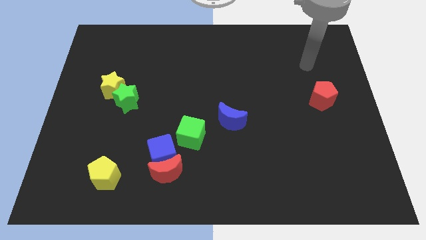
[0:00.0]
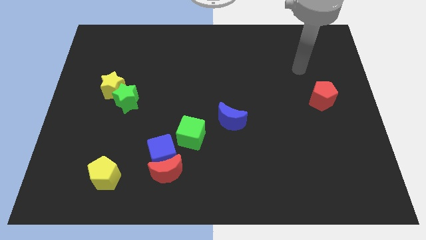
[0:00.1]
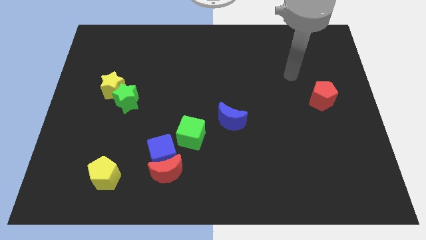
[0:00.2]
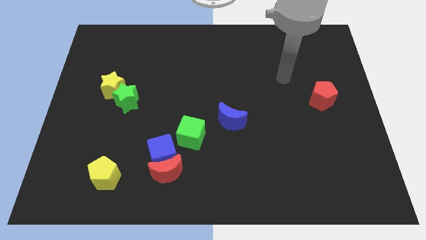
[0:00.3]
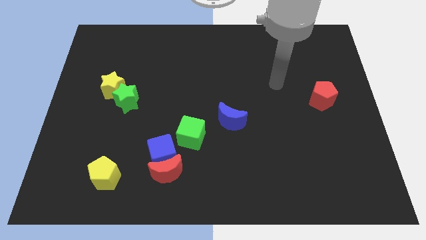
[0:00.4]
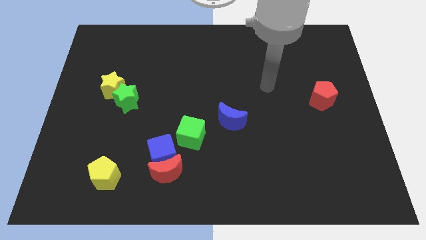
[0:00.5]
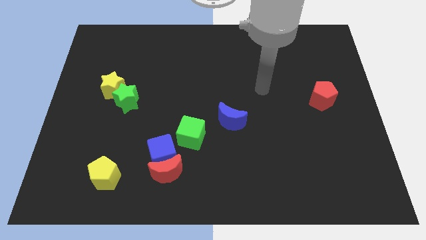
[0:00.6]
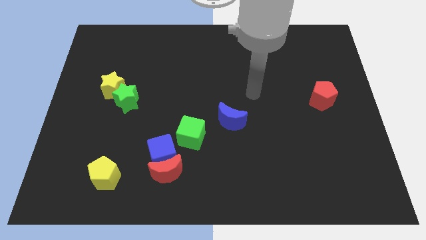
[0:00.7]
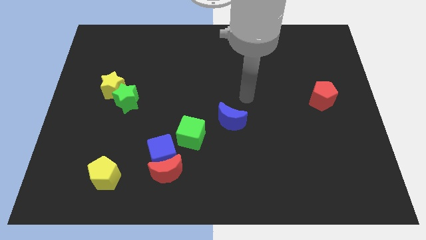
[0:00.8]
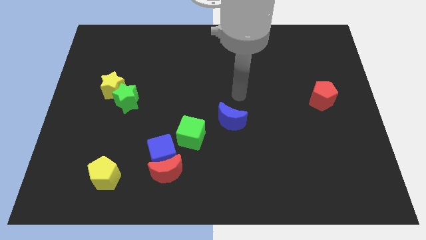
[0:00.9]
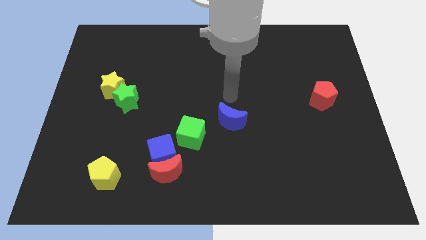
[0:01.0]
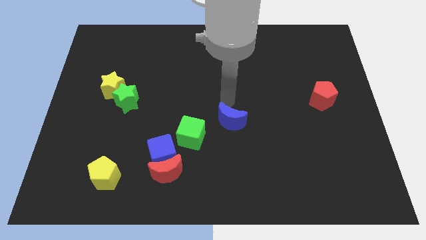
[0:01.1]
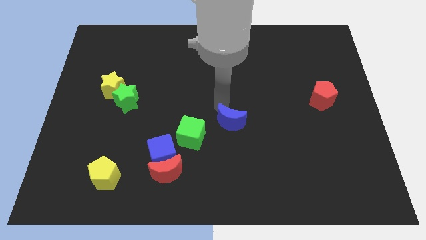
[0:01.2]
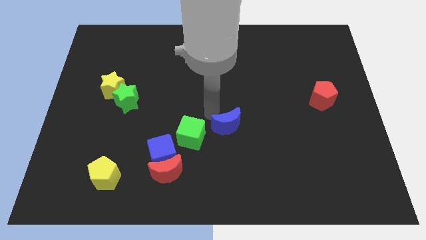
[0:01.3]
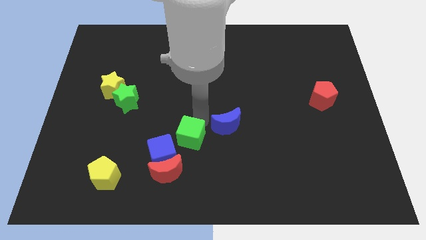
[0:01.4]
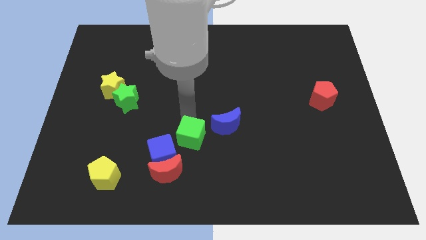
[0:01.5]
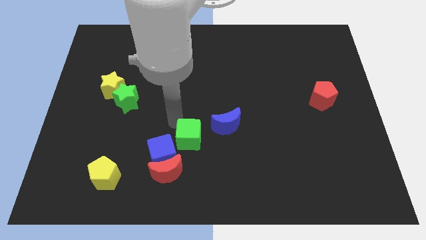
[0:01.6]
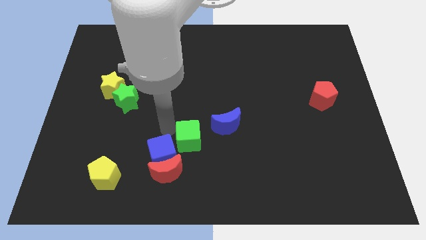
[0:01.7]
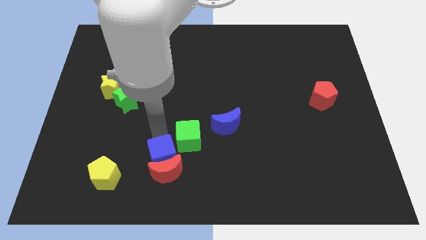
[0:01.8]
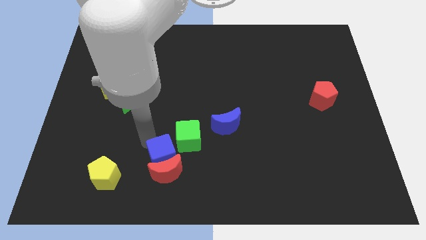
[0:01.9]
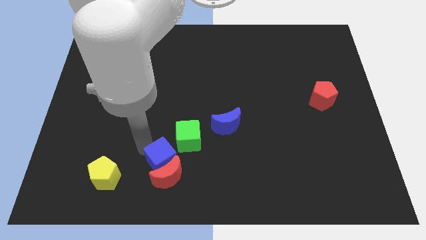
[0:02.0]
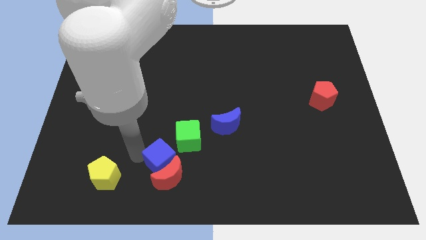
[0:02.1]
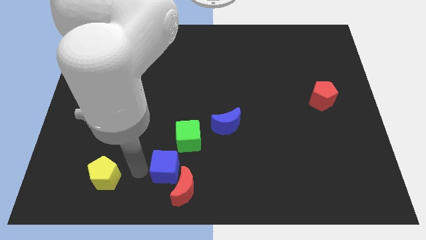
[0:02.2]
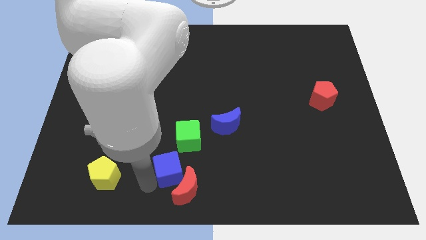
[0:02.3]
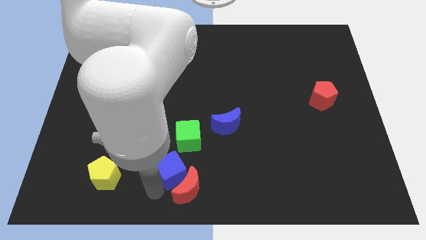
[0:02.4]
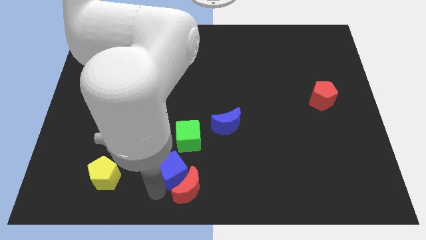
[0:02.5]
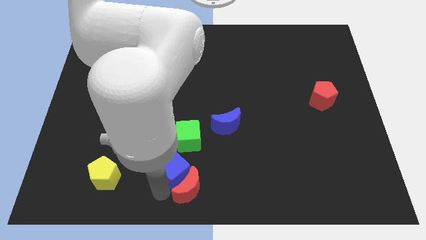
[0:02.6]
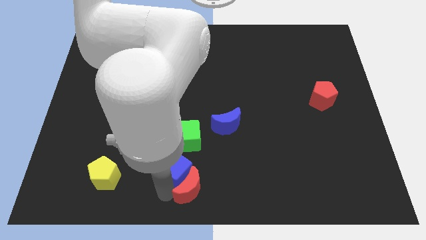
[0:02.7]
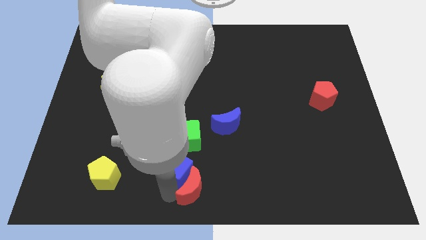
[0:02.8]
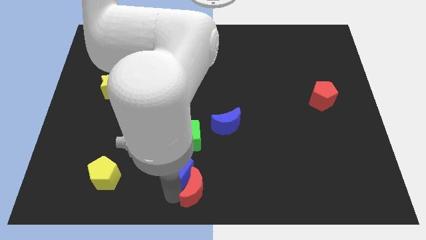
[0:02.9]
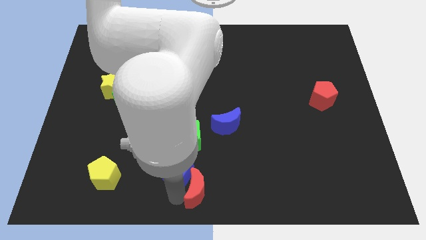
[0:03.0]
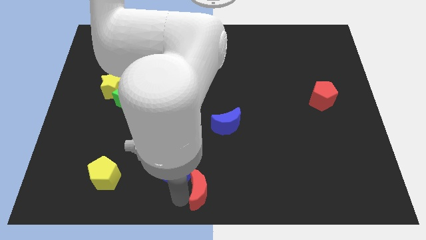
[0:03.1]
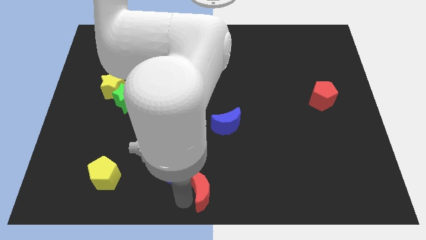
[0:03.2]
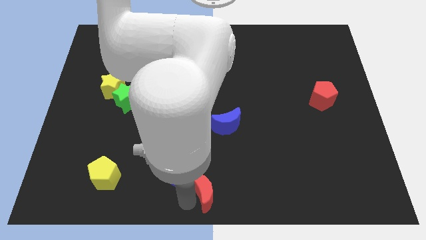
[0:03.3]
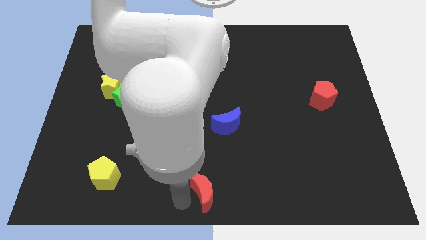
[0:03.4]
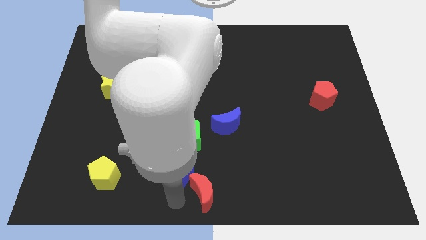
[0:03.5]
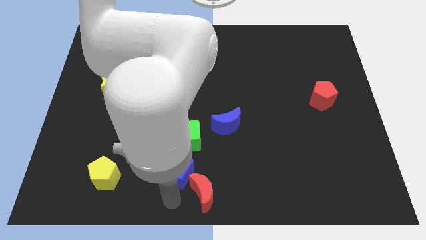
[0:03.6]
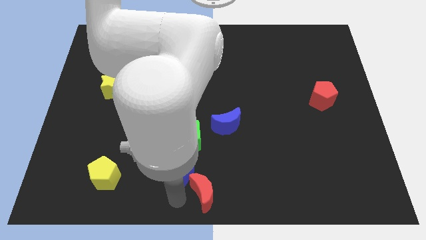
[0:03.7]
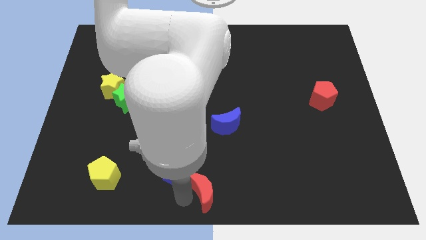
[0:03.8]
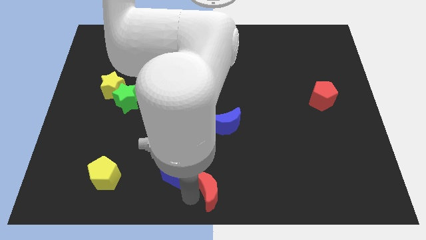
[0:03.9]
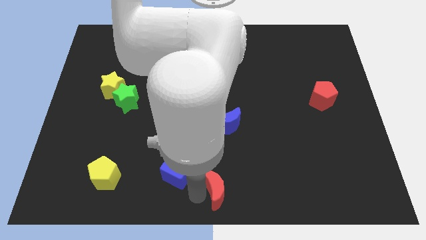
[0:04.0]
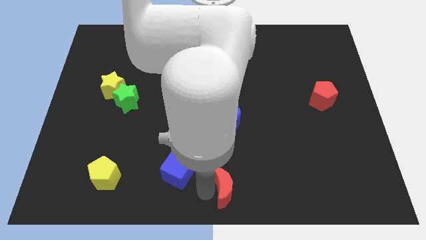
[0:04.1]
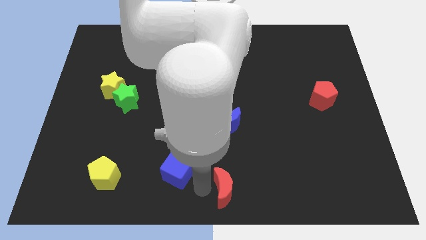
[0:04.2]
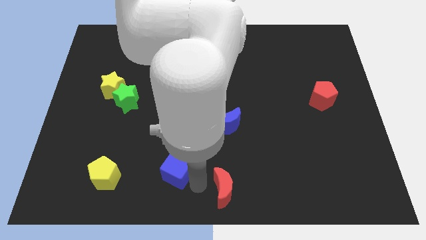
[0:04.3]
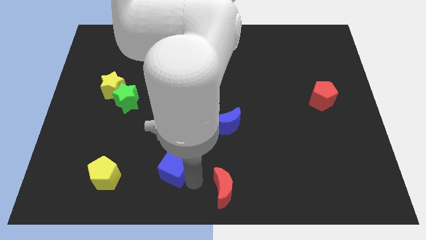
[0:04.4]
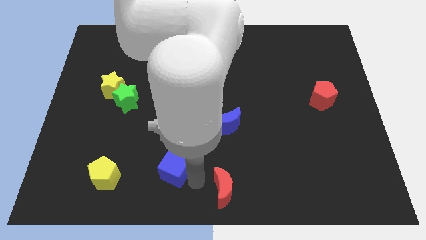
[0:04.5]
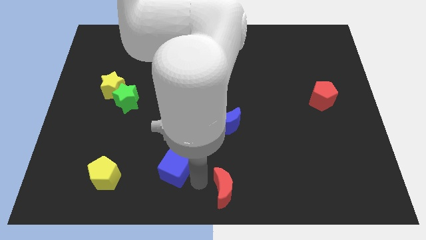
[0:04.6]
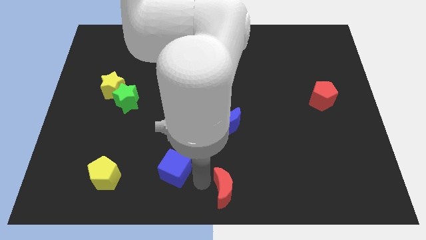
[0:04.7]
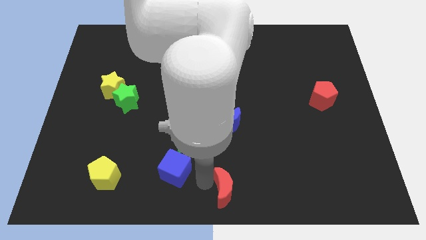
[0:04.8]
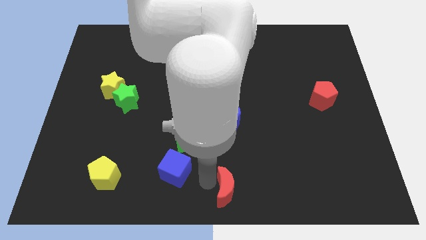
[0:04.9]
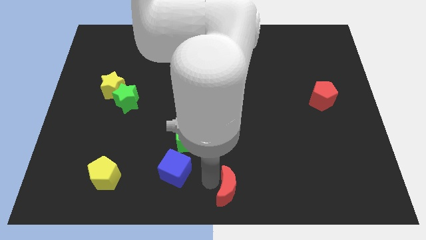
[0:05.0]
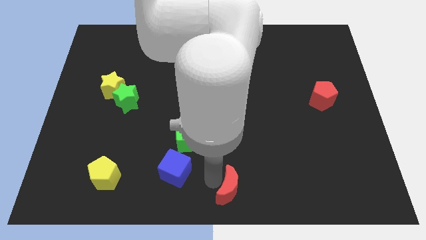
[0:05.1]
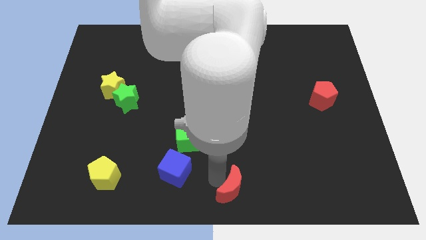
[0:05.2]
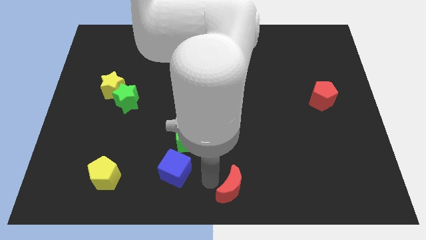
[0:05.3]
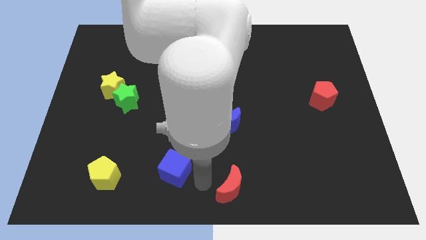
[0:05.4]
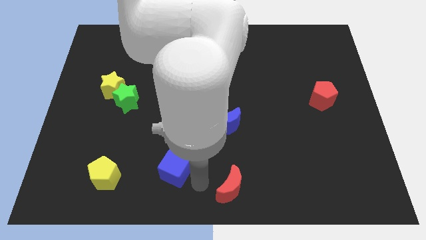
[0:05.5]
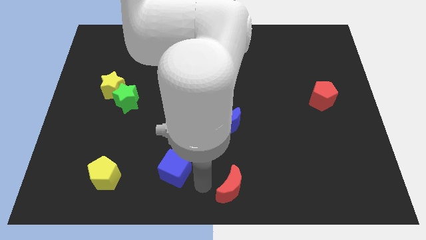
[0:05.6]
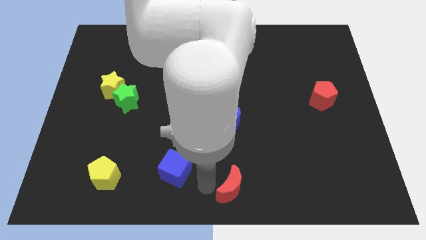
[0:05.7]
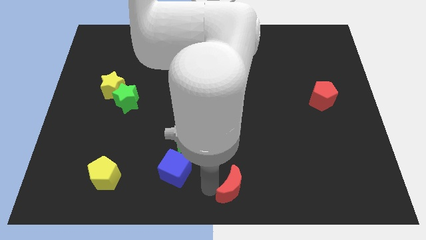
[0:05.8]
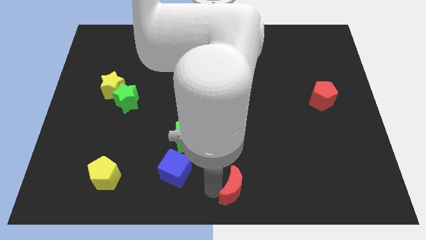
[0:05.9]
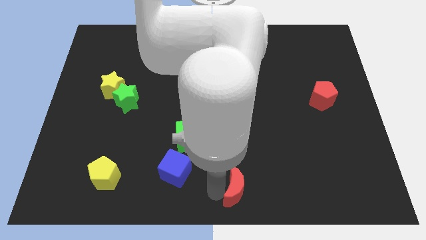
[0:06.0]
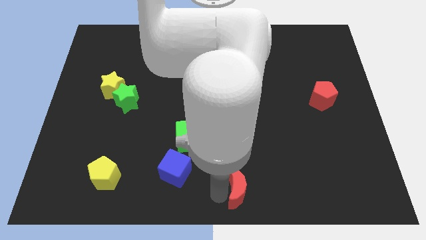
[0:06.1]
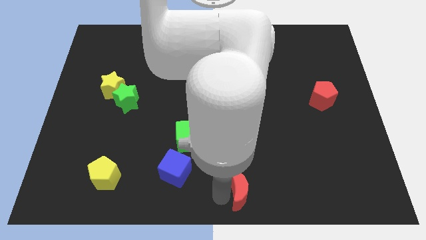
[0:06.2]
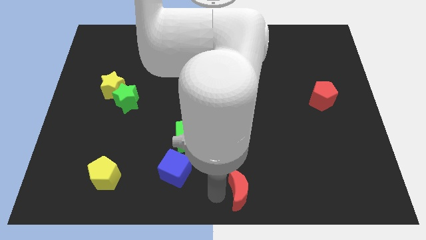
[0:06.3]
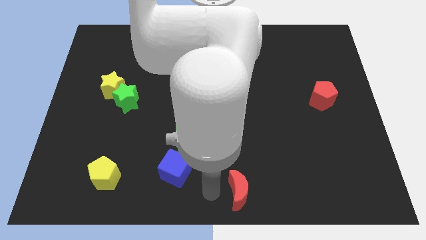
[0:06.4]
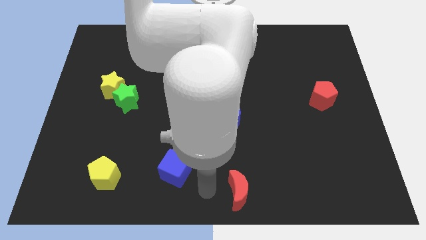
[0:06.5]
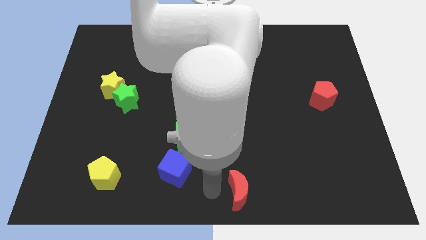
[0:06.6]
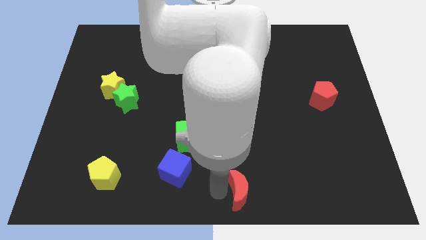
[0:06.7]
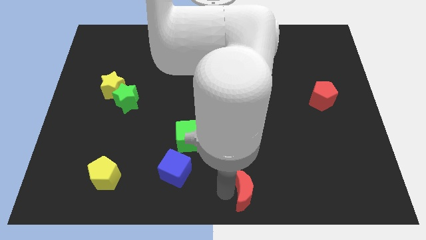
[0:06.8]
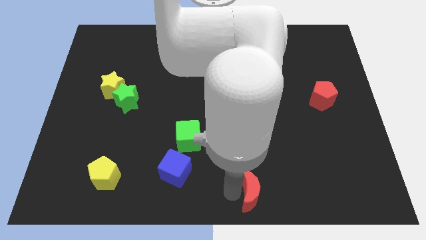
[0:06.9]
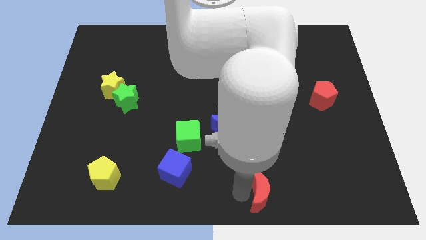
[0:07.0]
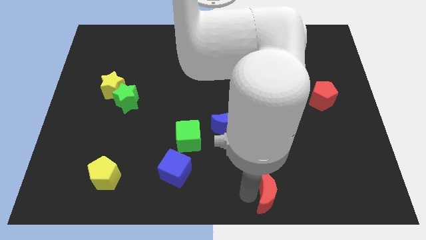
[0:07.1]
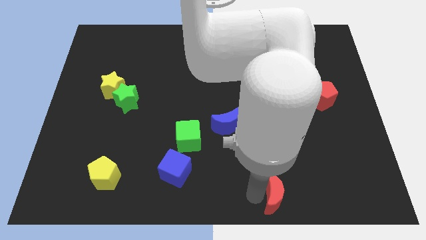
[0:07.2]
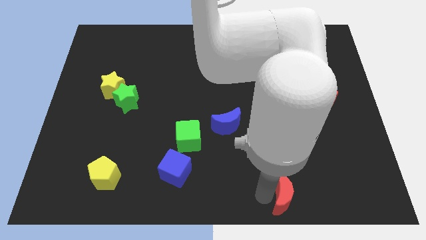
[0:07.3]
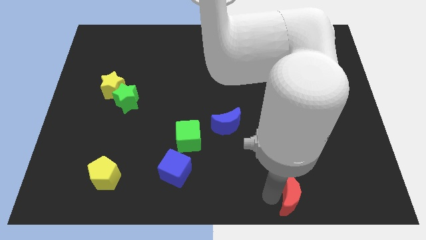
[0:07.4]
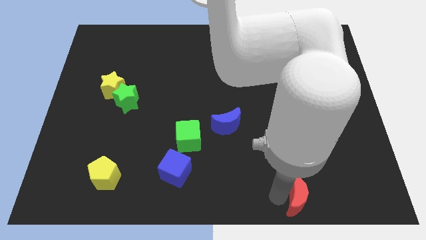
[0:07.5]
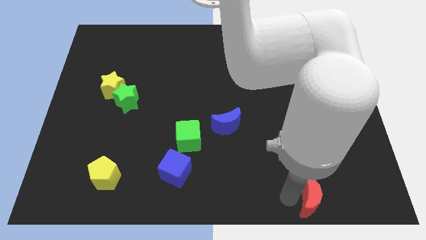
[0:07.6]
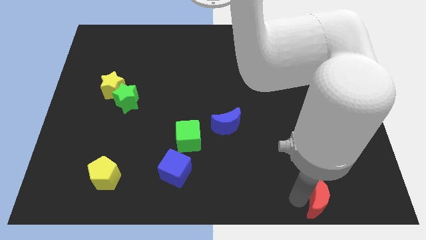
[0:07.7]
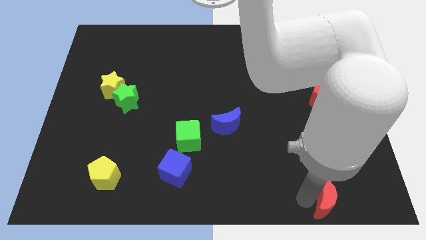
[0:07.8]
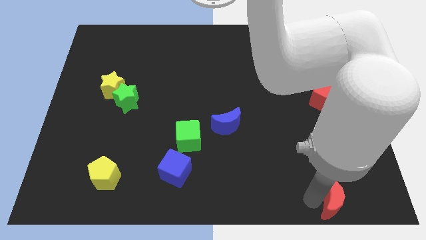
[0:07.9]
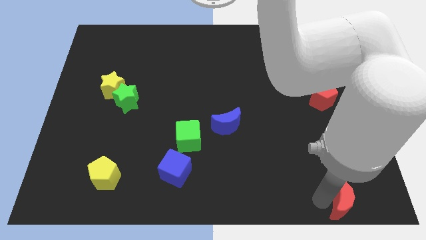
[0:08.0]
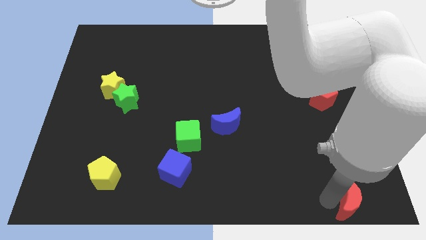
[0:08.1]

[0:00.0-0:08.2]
slide the red moon to the bottom right of the board
